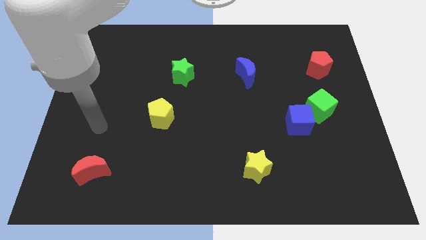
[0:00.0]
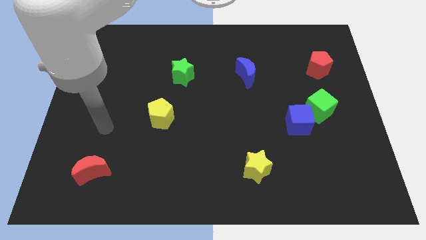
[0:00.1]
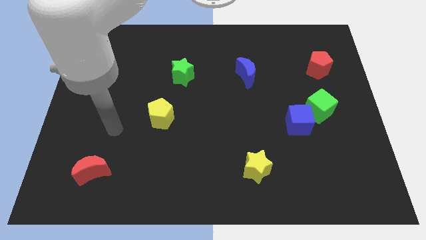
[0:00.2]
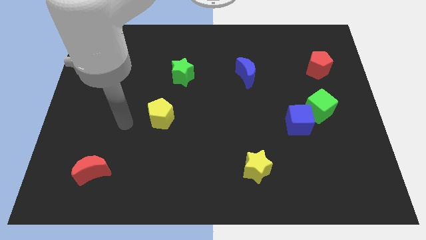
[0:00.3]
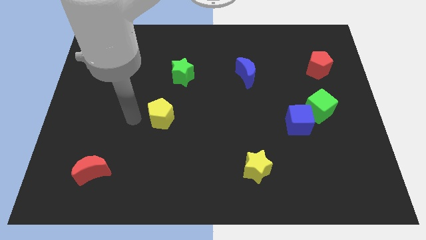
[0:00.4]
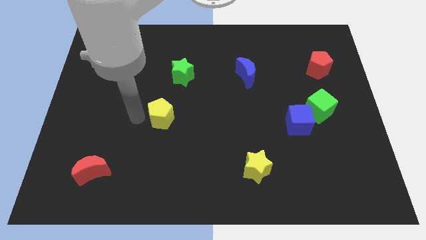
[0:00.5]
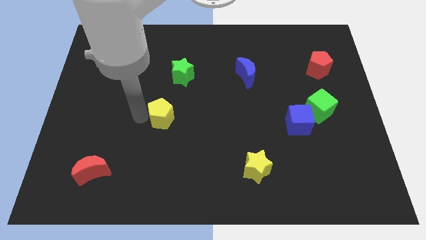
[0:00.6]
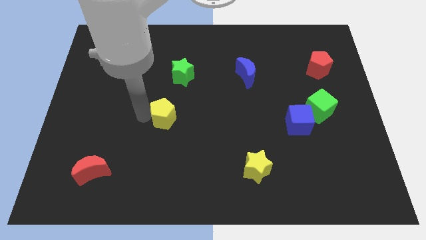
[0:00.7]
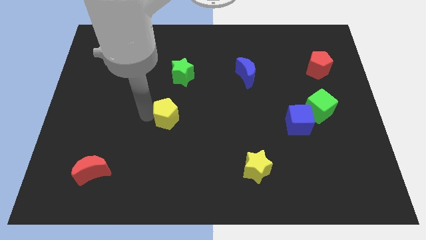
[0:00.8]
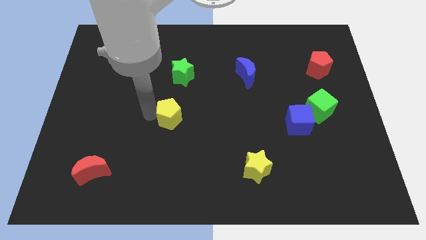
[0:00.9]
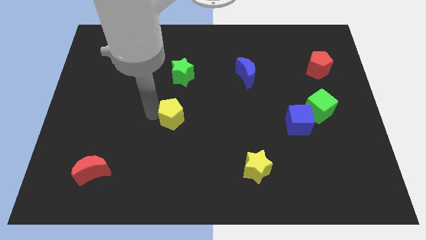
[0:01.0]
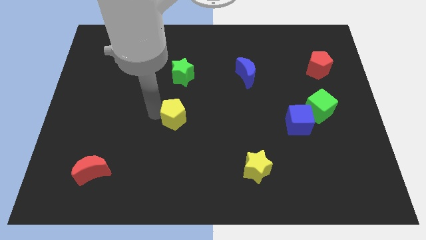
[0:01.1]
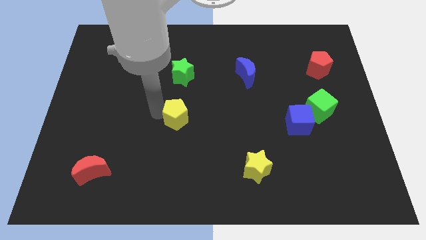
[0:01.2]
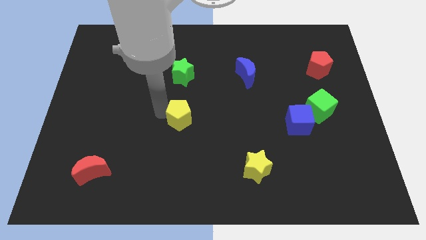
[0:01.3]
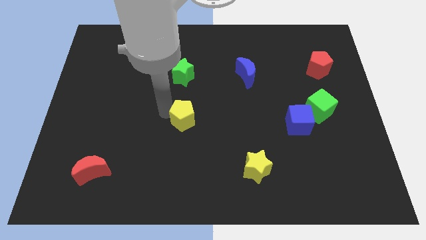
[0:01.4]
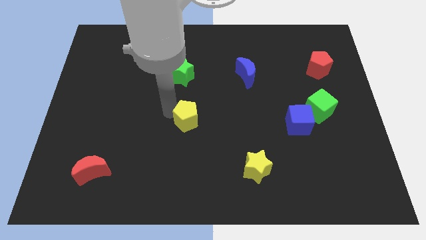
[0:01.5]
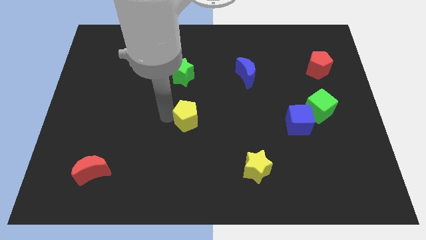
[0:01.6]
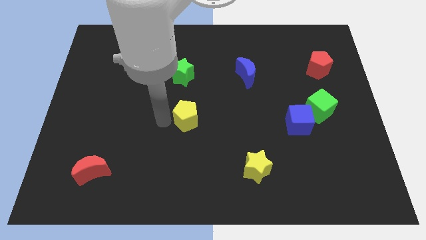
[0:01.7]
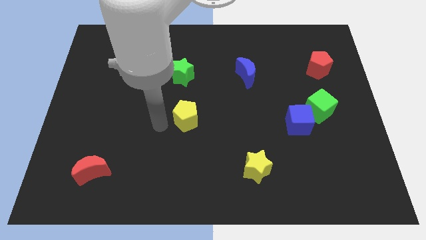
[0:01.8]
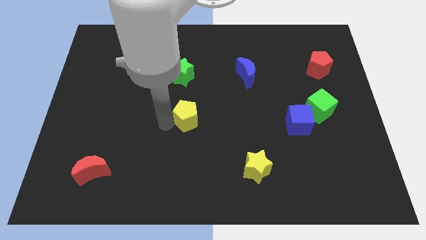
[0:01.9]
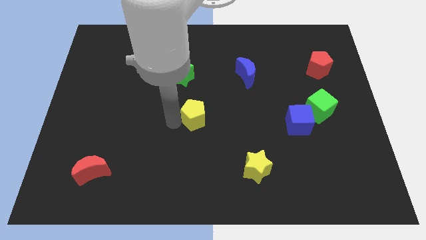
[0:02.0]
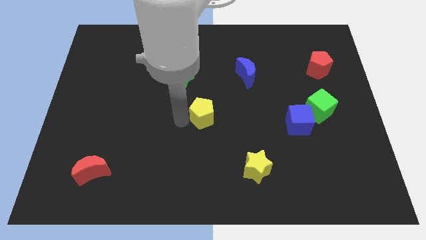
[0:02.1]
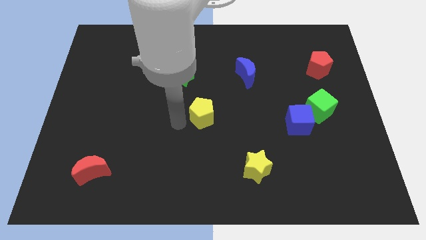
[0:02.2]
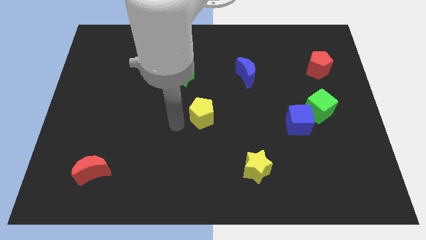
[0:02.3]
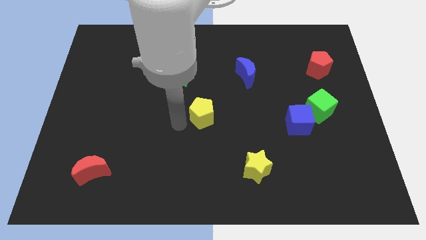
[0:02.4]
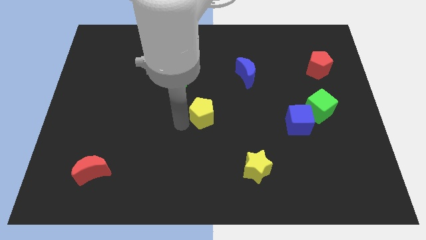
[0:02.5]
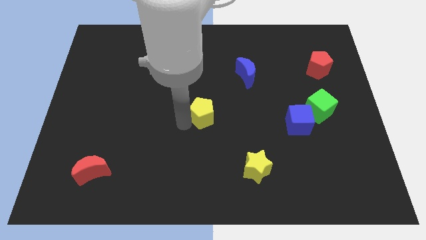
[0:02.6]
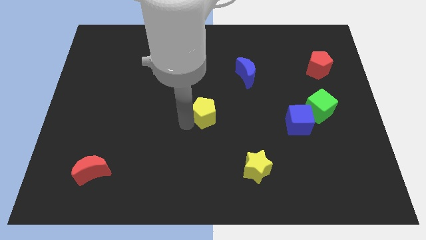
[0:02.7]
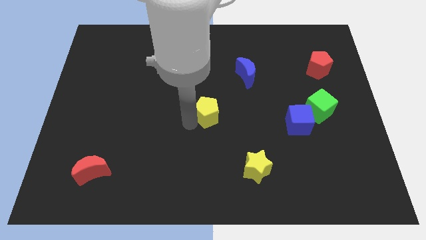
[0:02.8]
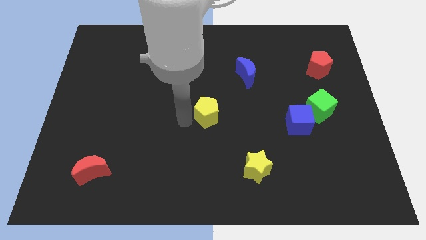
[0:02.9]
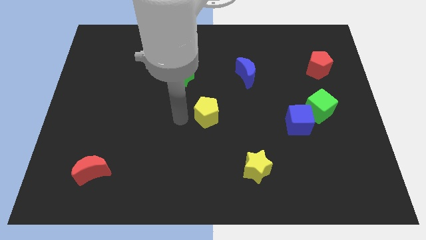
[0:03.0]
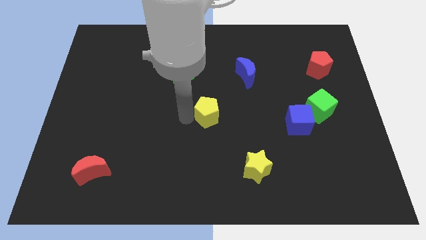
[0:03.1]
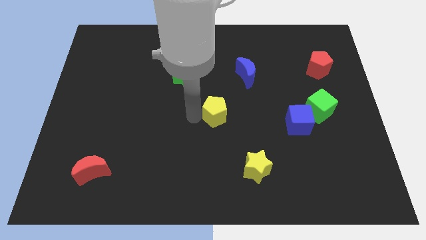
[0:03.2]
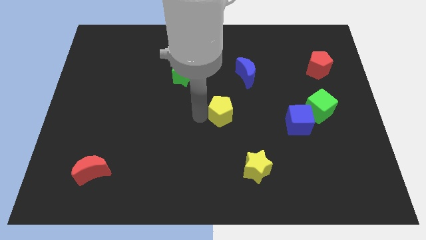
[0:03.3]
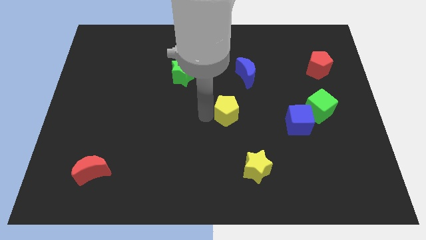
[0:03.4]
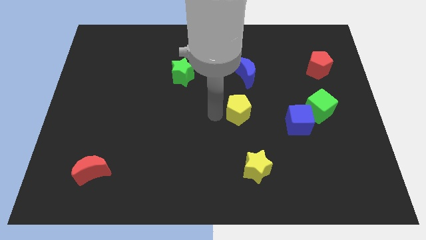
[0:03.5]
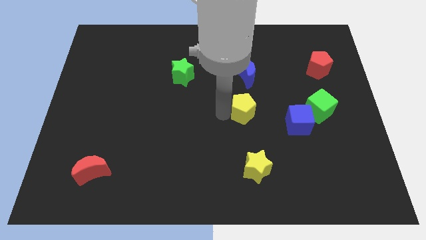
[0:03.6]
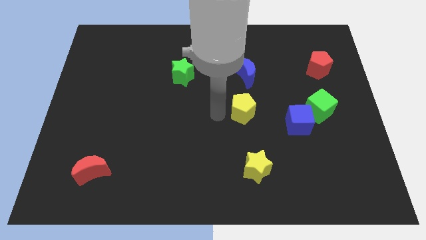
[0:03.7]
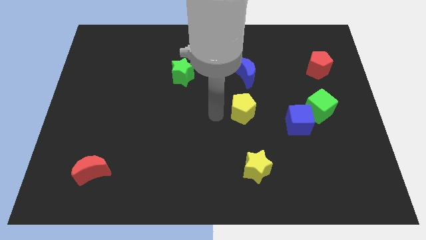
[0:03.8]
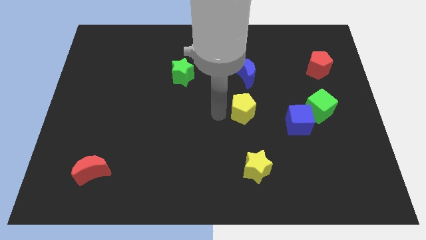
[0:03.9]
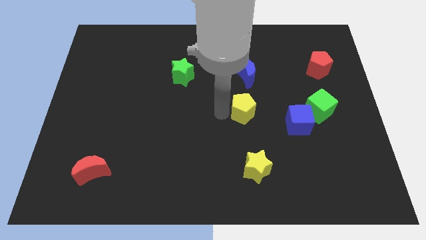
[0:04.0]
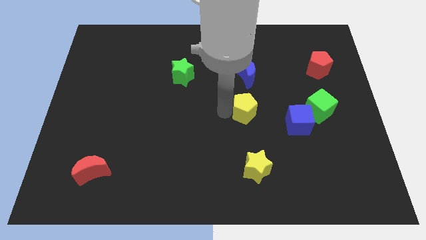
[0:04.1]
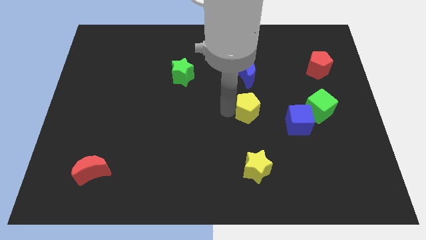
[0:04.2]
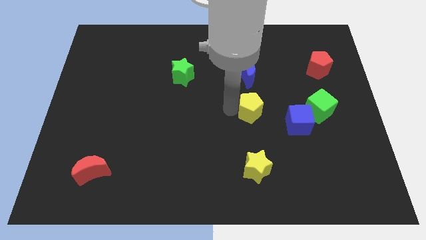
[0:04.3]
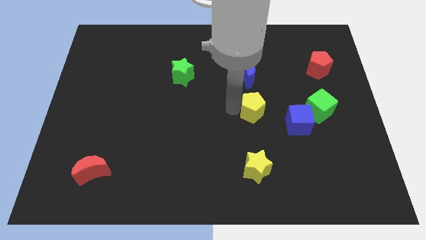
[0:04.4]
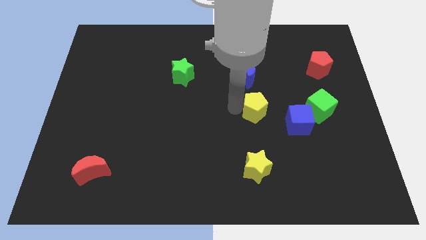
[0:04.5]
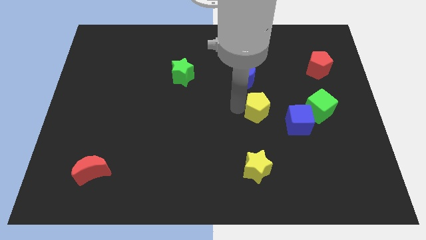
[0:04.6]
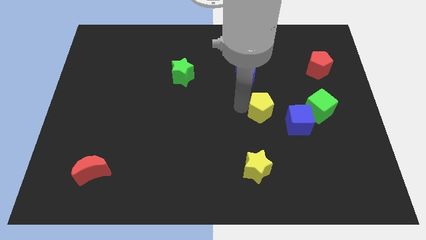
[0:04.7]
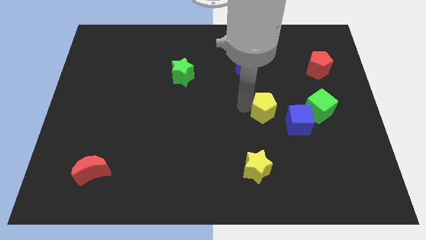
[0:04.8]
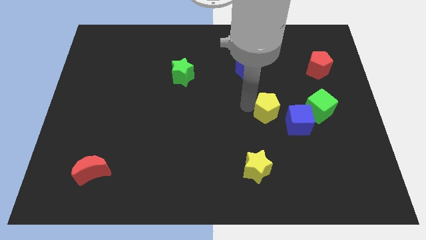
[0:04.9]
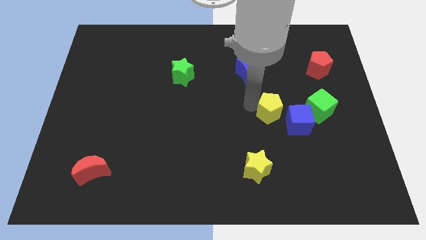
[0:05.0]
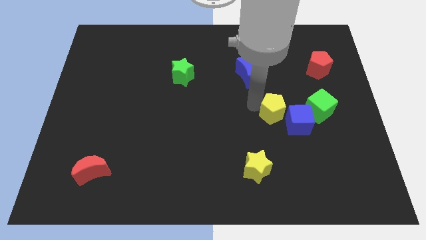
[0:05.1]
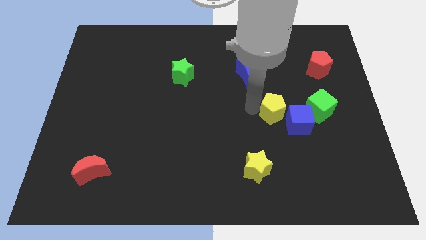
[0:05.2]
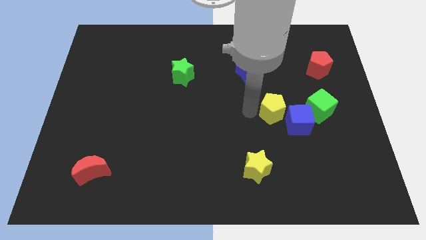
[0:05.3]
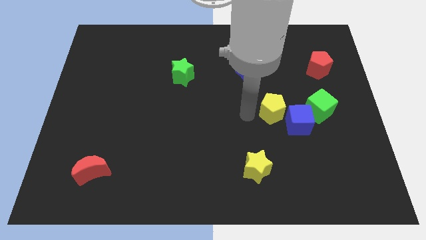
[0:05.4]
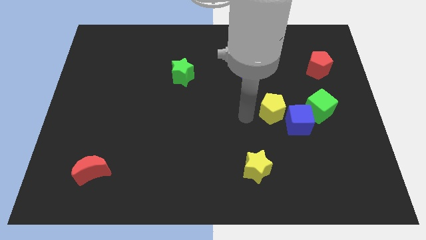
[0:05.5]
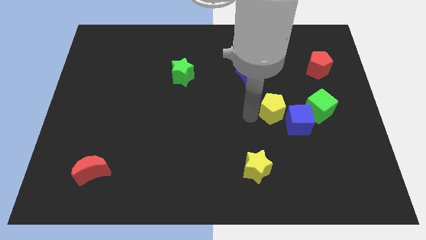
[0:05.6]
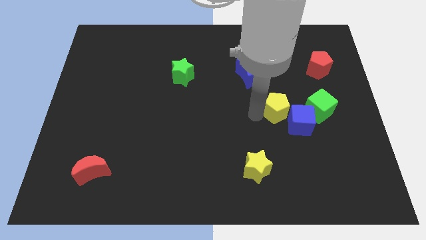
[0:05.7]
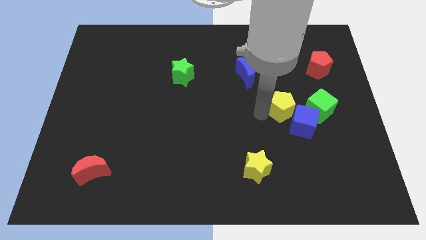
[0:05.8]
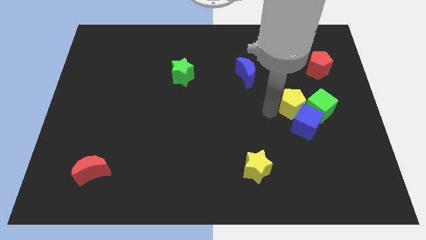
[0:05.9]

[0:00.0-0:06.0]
push the yellow pentagon to the green cube

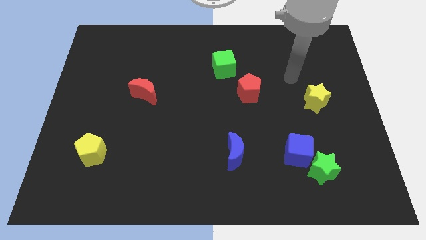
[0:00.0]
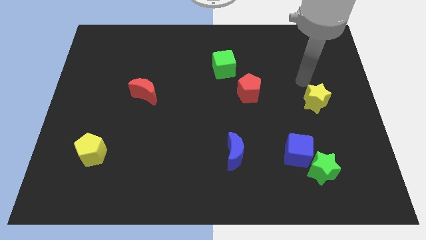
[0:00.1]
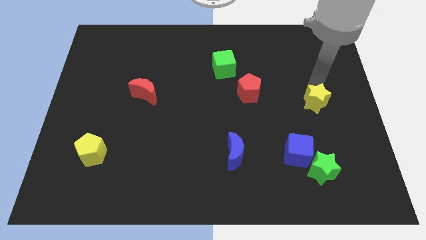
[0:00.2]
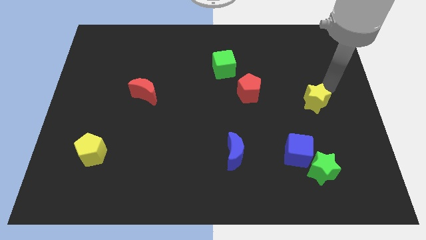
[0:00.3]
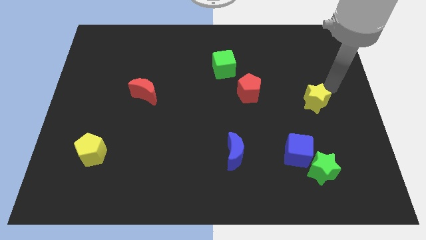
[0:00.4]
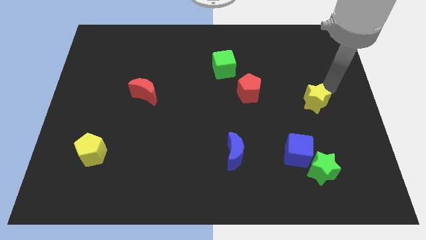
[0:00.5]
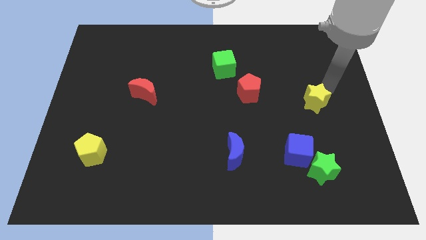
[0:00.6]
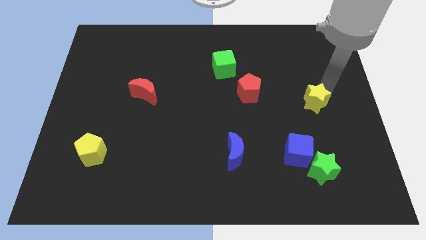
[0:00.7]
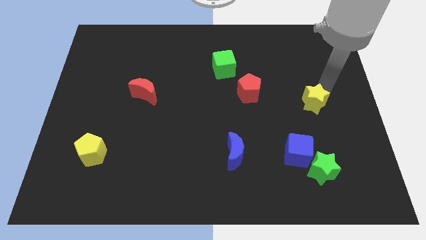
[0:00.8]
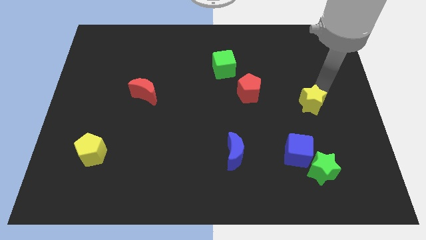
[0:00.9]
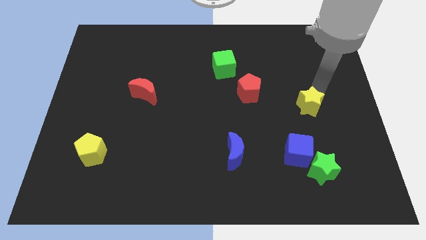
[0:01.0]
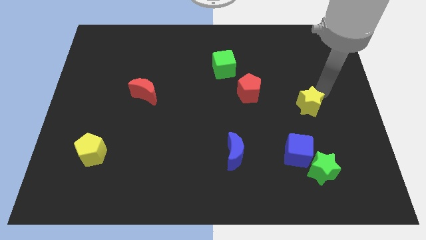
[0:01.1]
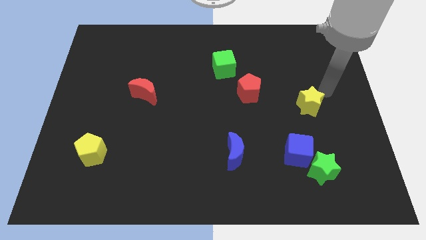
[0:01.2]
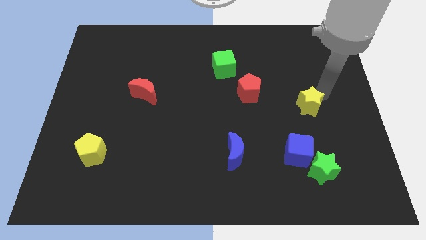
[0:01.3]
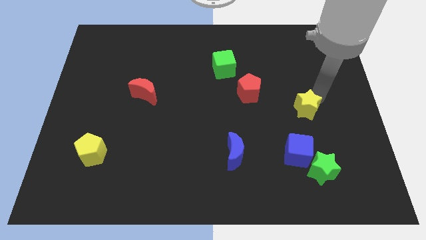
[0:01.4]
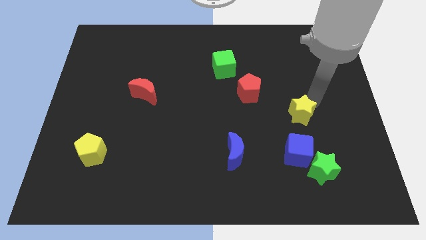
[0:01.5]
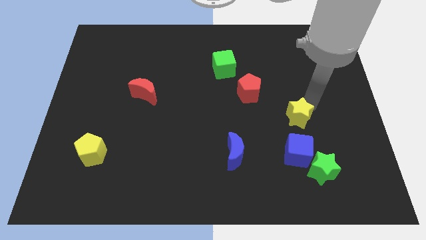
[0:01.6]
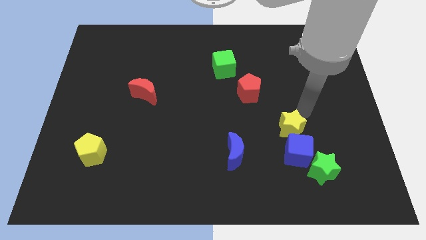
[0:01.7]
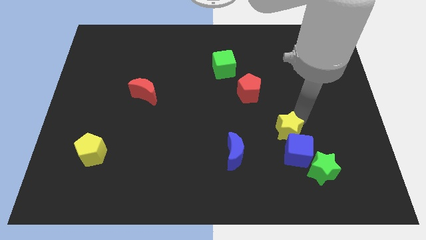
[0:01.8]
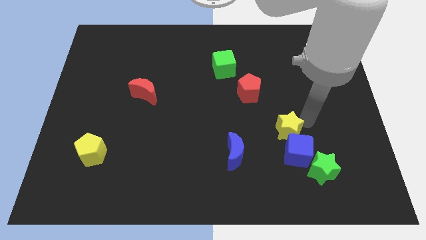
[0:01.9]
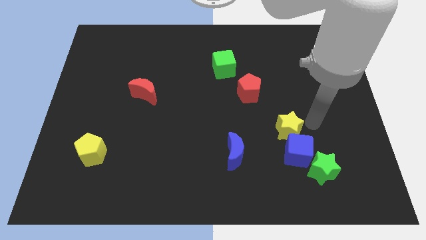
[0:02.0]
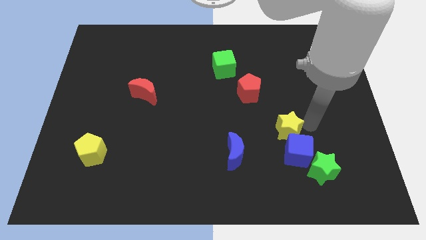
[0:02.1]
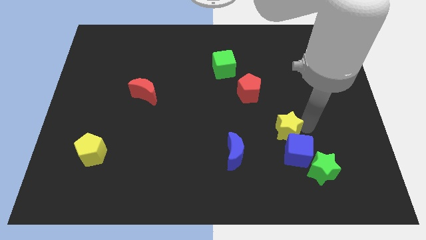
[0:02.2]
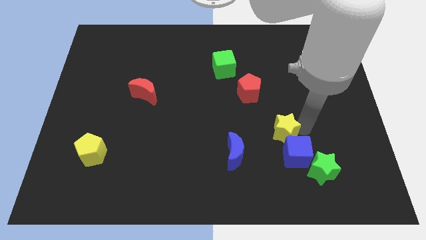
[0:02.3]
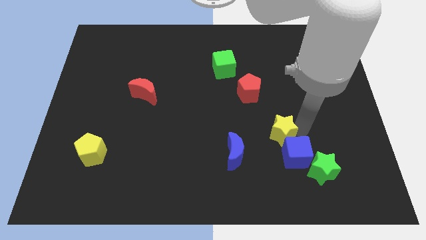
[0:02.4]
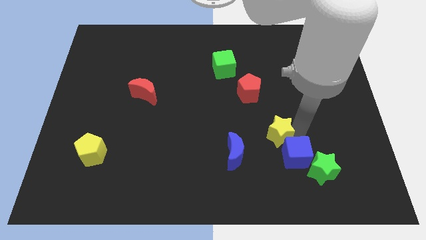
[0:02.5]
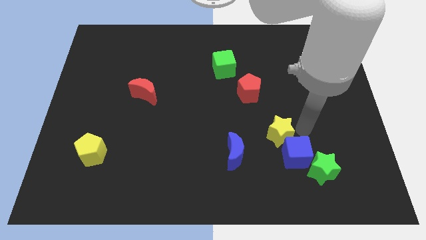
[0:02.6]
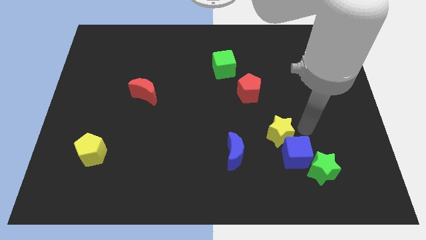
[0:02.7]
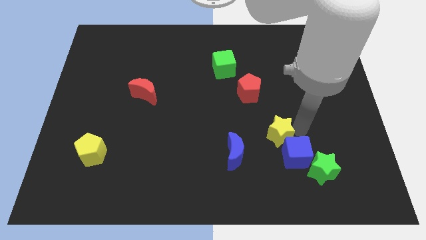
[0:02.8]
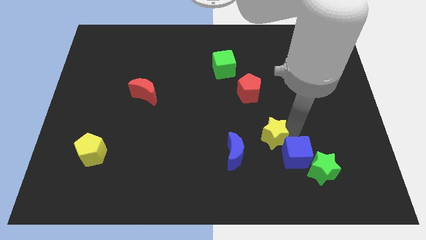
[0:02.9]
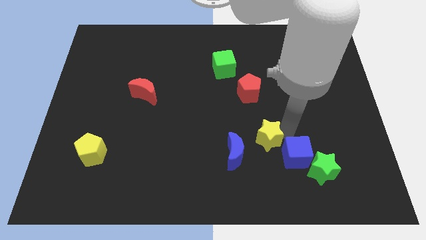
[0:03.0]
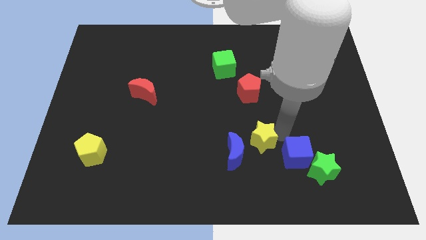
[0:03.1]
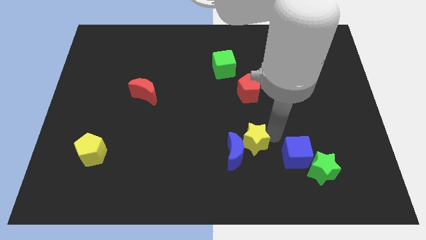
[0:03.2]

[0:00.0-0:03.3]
put the yellow star next to the blue moon
